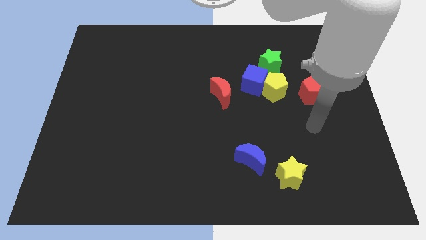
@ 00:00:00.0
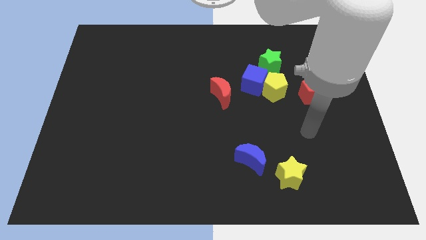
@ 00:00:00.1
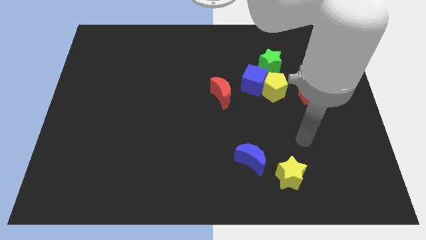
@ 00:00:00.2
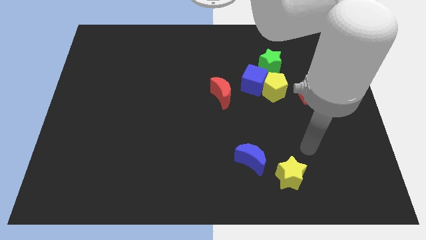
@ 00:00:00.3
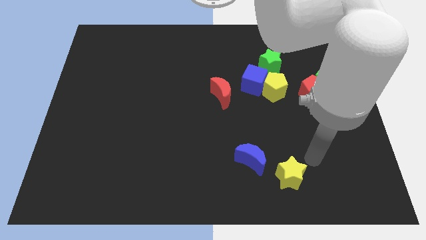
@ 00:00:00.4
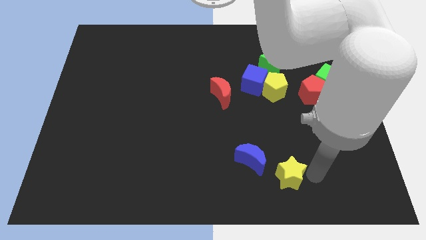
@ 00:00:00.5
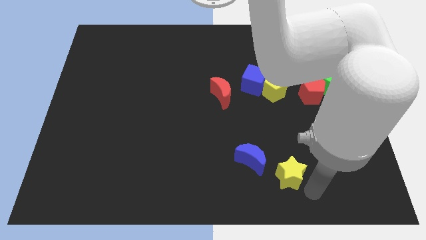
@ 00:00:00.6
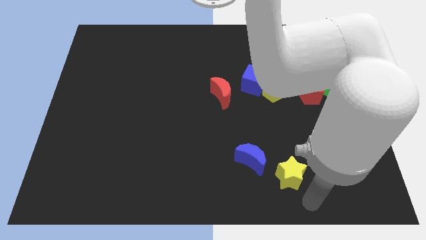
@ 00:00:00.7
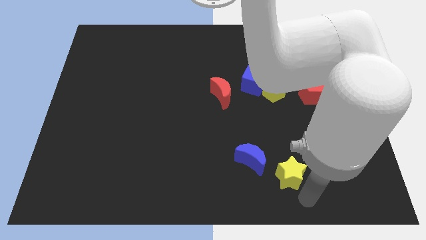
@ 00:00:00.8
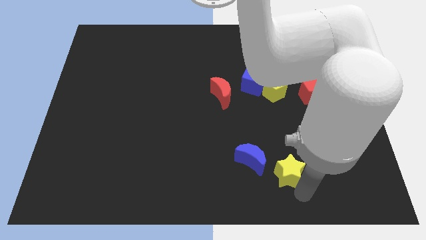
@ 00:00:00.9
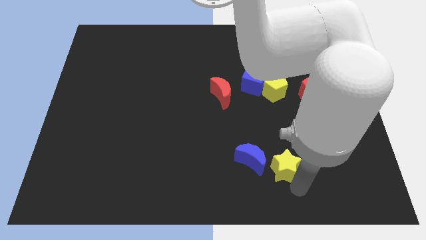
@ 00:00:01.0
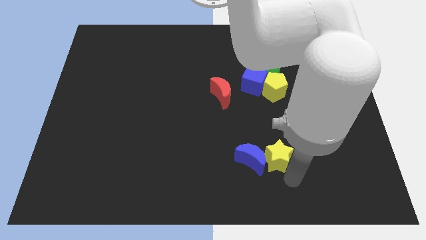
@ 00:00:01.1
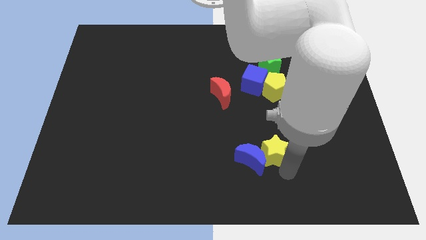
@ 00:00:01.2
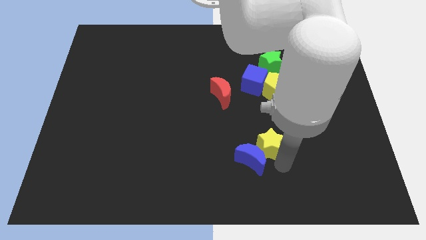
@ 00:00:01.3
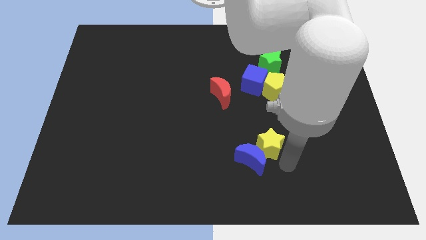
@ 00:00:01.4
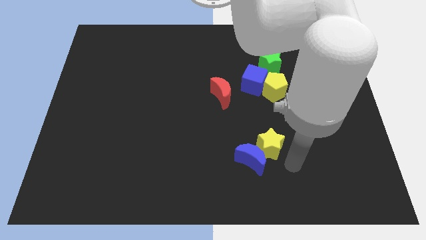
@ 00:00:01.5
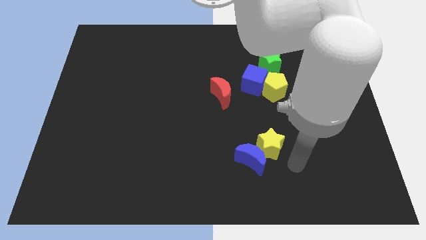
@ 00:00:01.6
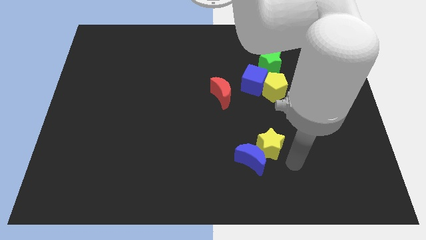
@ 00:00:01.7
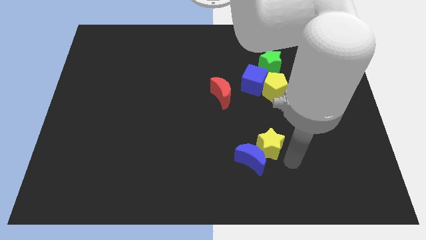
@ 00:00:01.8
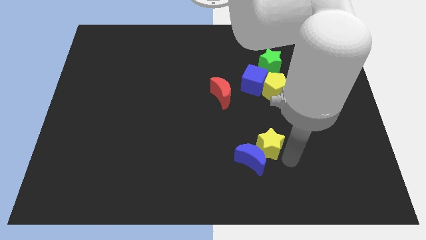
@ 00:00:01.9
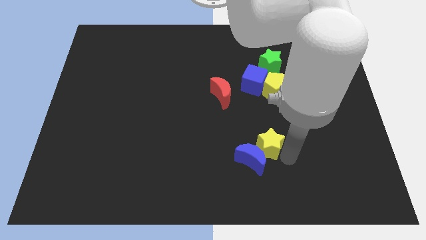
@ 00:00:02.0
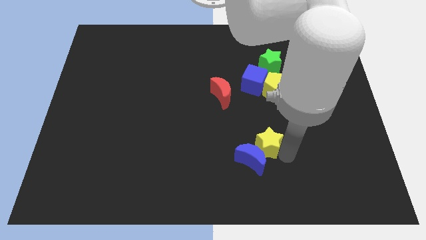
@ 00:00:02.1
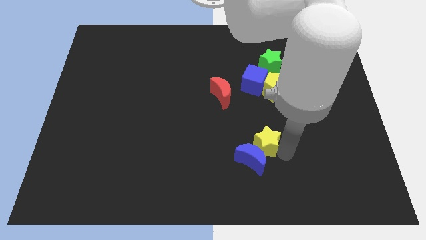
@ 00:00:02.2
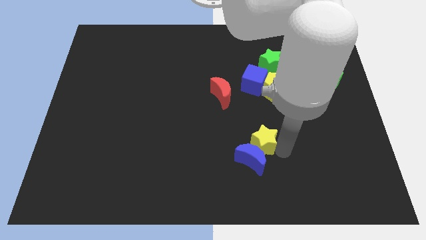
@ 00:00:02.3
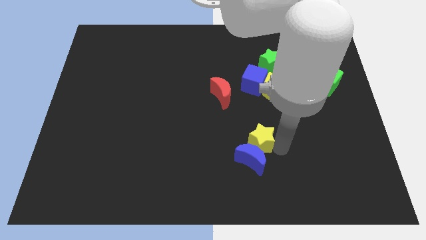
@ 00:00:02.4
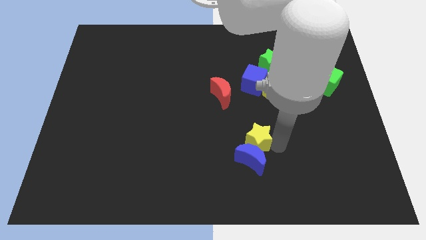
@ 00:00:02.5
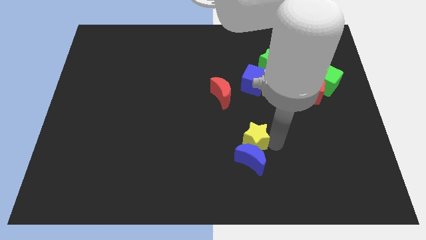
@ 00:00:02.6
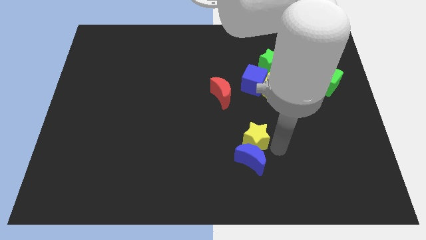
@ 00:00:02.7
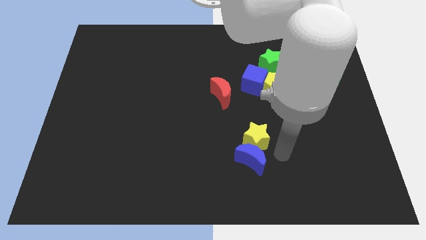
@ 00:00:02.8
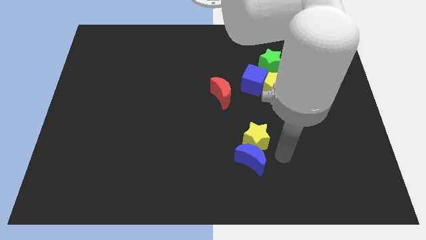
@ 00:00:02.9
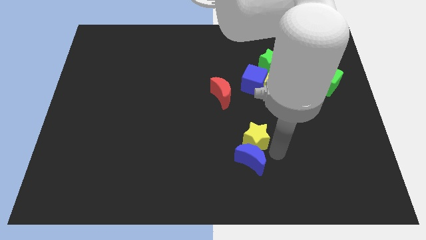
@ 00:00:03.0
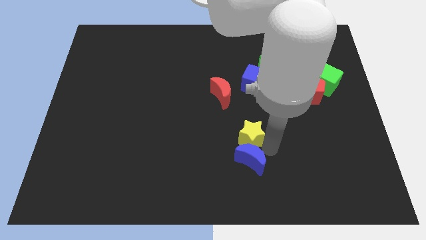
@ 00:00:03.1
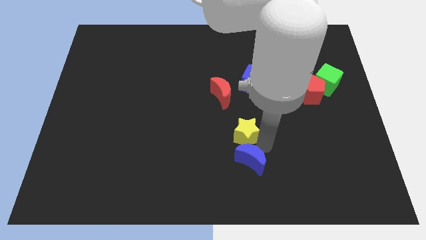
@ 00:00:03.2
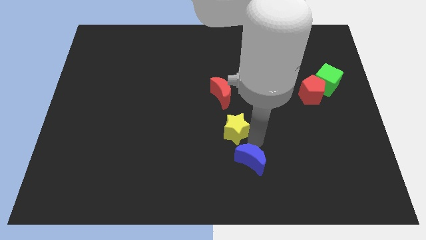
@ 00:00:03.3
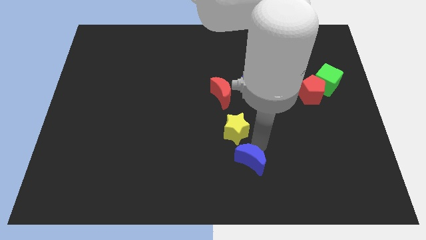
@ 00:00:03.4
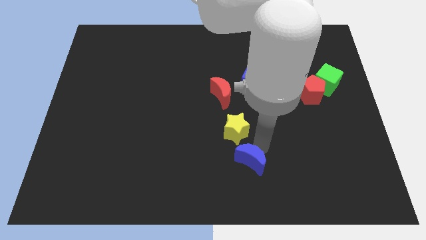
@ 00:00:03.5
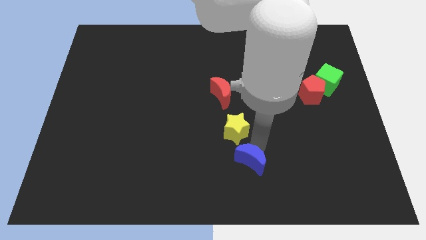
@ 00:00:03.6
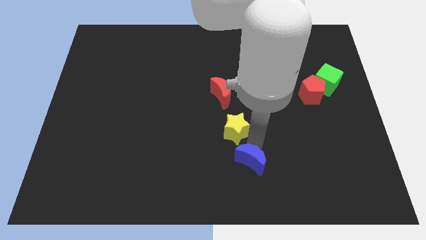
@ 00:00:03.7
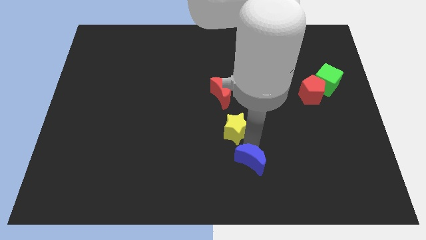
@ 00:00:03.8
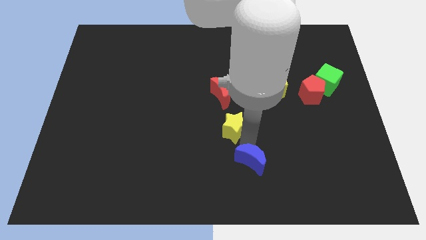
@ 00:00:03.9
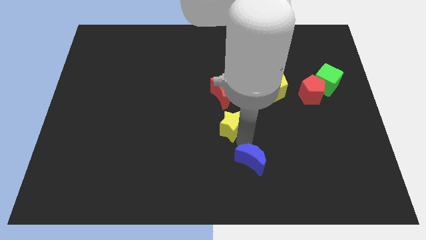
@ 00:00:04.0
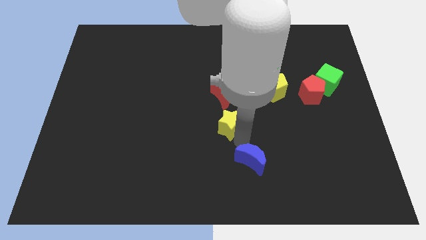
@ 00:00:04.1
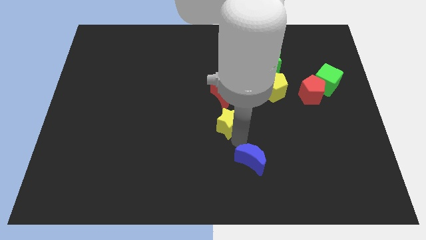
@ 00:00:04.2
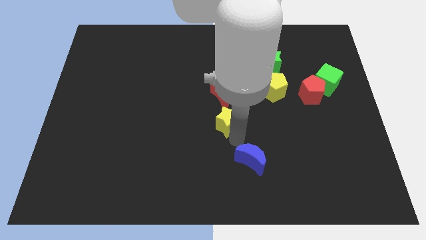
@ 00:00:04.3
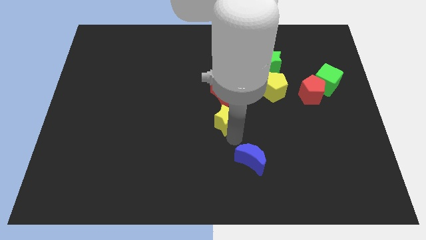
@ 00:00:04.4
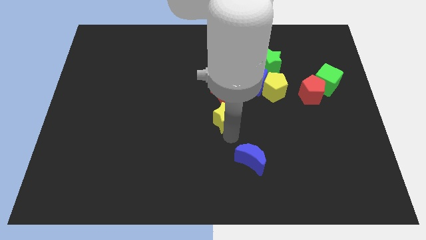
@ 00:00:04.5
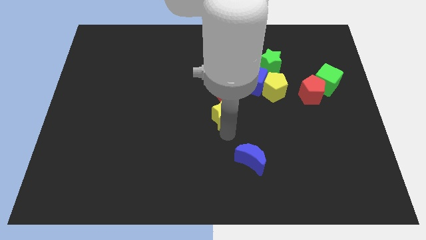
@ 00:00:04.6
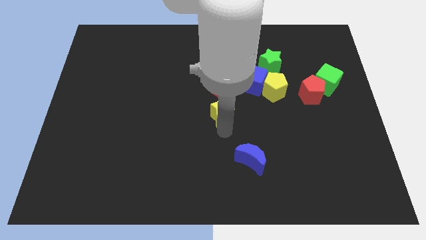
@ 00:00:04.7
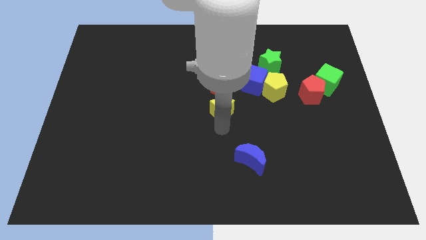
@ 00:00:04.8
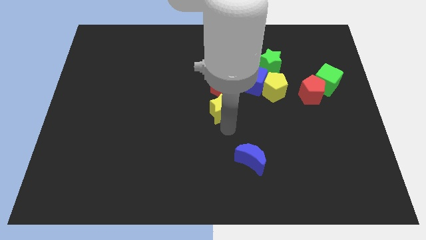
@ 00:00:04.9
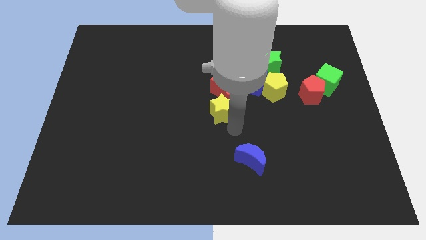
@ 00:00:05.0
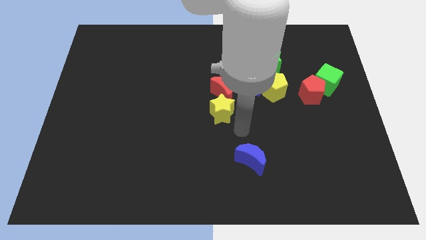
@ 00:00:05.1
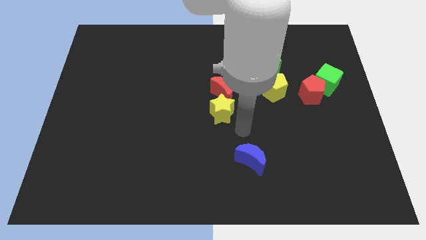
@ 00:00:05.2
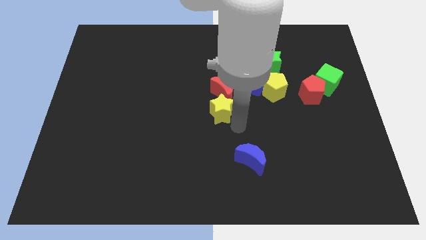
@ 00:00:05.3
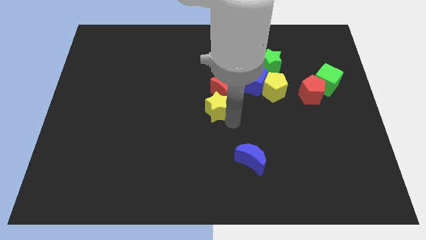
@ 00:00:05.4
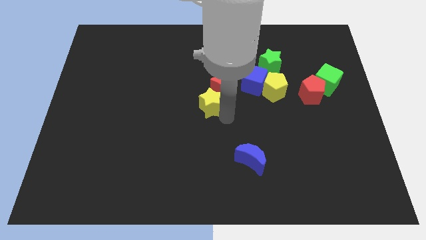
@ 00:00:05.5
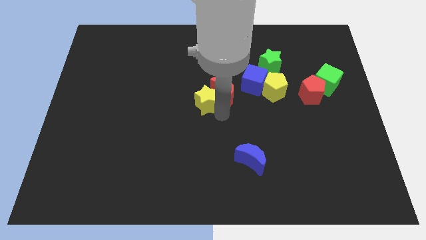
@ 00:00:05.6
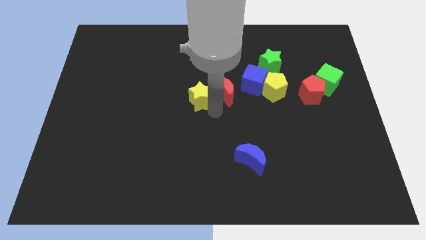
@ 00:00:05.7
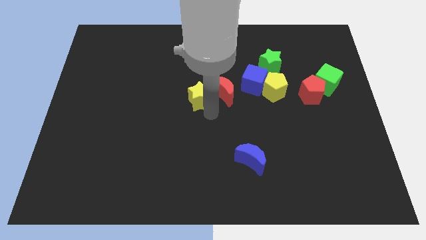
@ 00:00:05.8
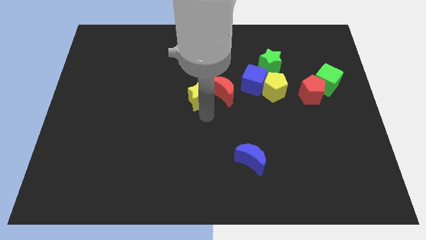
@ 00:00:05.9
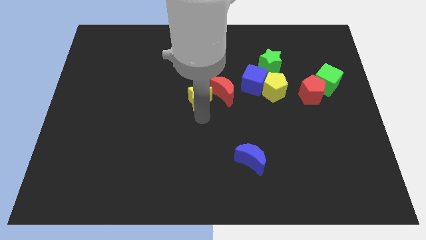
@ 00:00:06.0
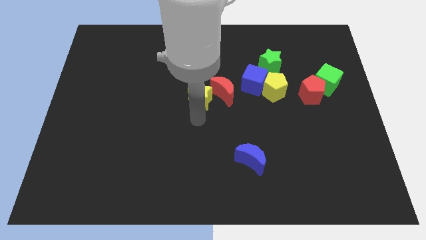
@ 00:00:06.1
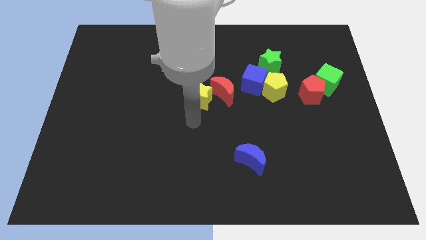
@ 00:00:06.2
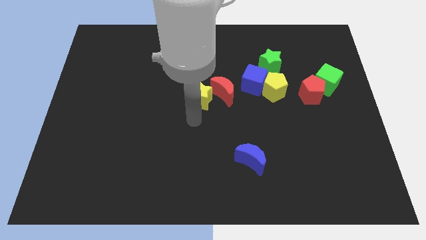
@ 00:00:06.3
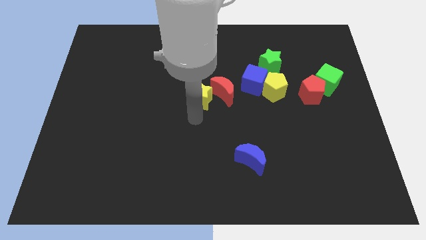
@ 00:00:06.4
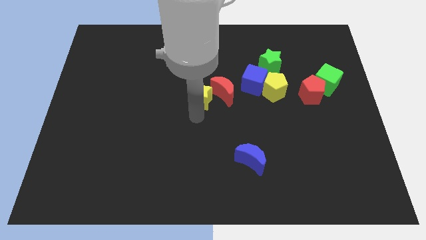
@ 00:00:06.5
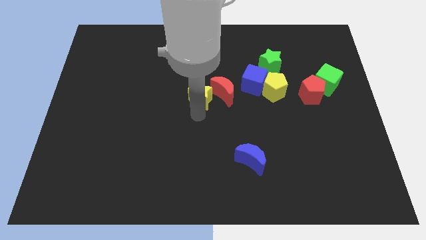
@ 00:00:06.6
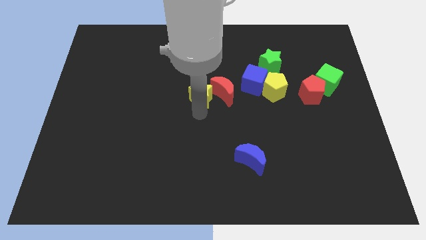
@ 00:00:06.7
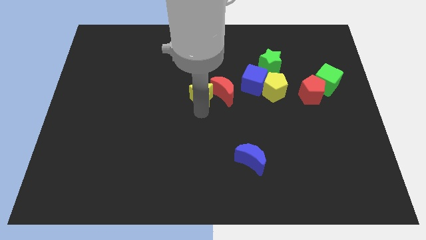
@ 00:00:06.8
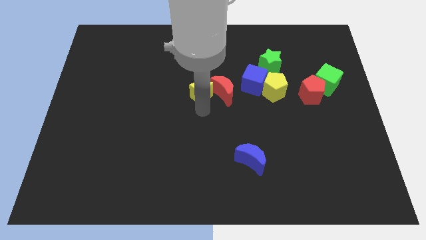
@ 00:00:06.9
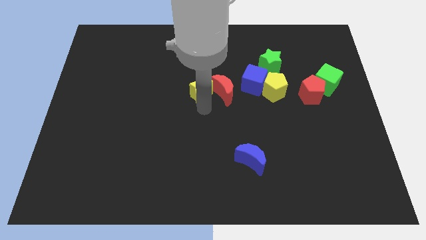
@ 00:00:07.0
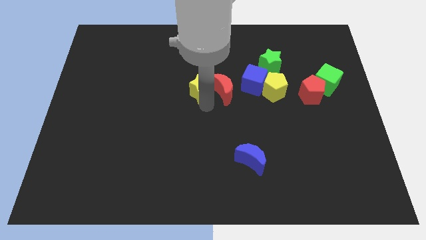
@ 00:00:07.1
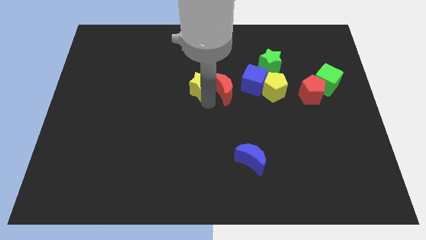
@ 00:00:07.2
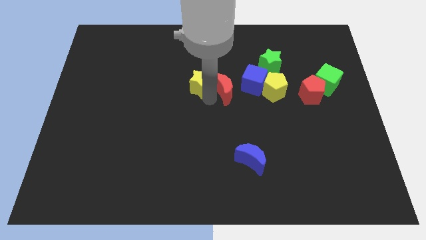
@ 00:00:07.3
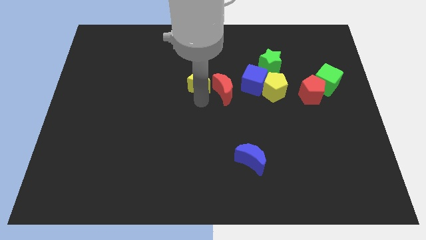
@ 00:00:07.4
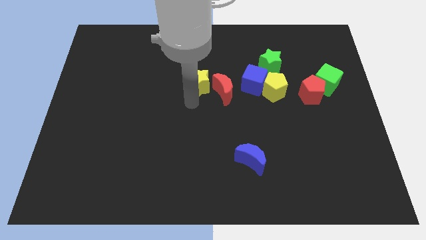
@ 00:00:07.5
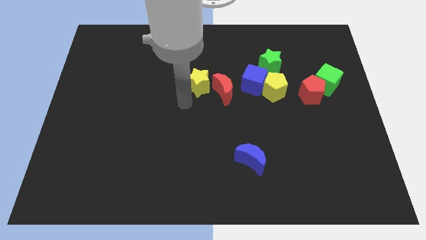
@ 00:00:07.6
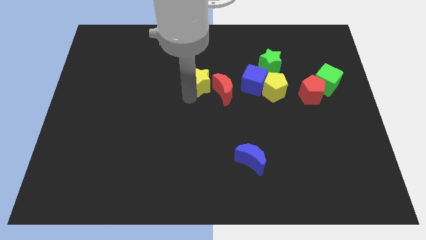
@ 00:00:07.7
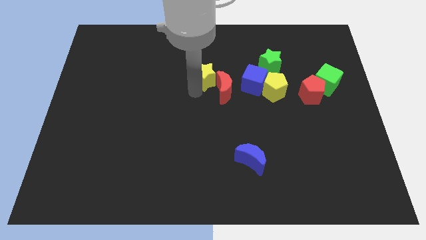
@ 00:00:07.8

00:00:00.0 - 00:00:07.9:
put the yellow star above the red moon
